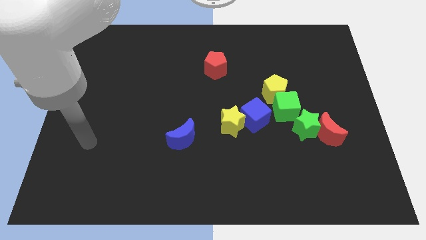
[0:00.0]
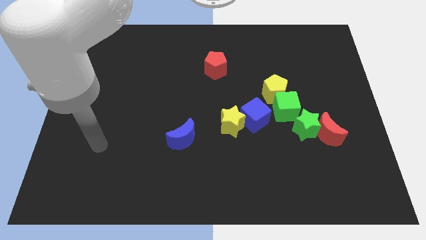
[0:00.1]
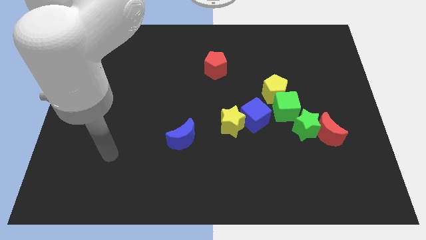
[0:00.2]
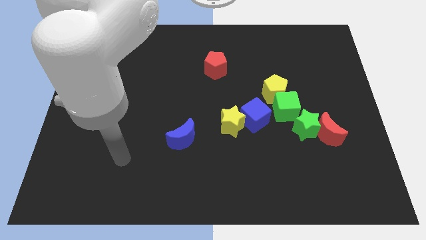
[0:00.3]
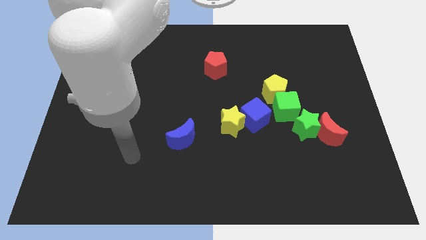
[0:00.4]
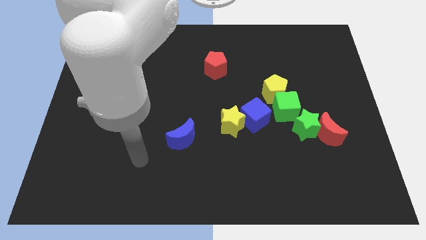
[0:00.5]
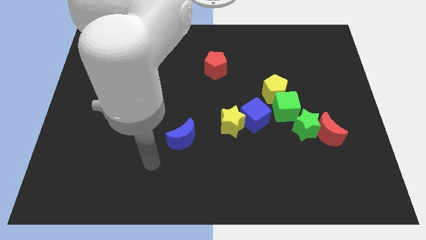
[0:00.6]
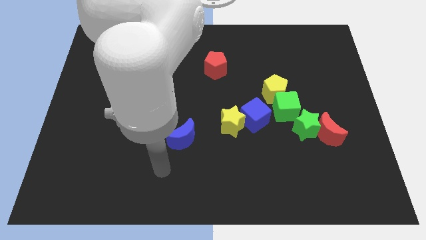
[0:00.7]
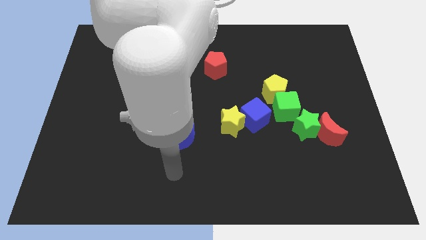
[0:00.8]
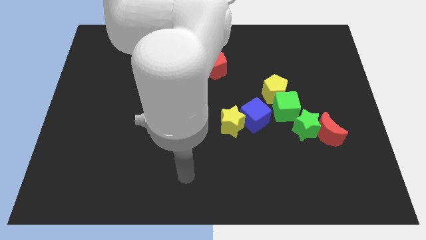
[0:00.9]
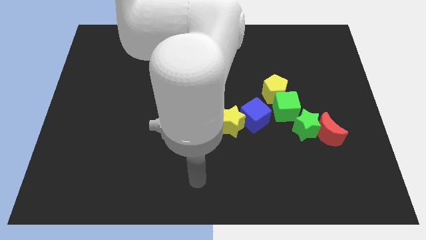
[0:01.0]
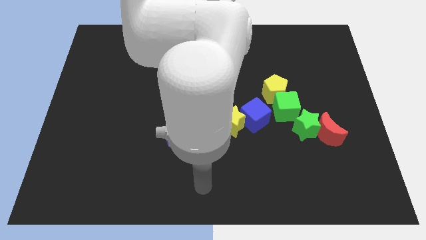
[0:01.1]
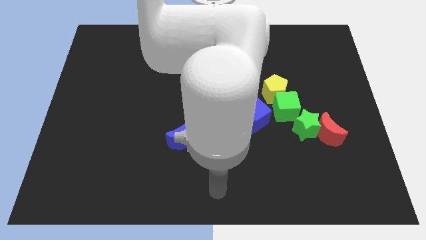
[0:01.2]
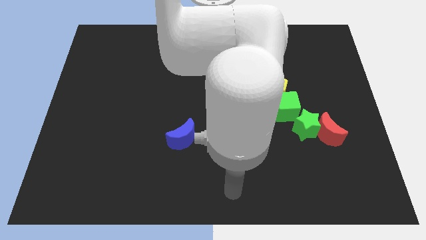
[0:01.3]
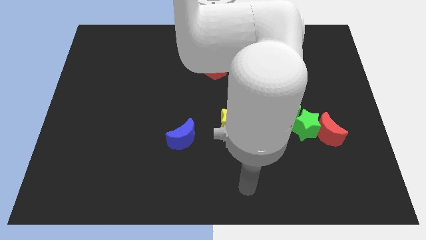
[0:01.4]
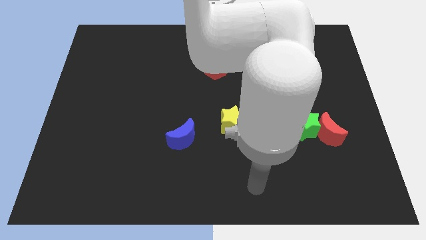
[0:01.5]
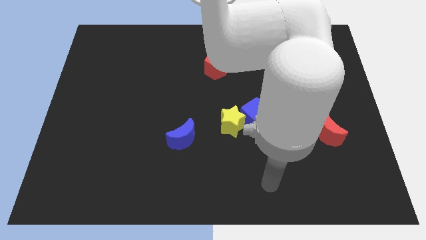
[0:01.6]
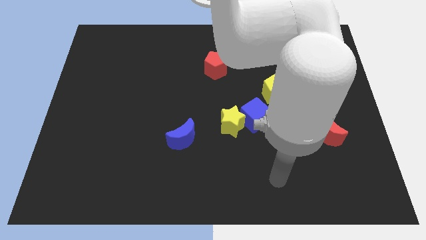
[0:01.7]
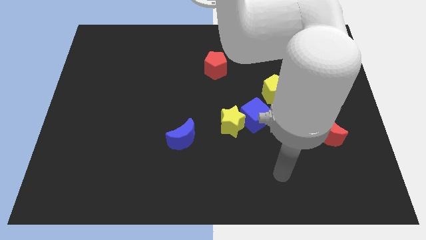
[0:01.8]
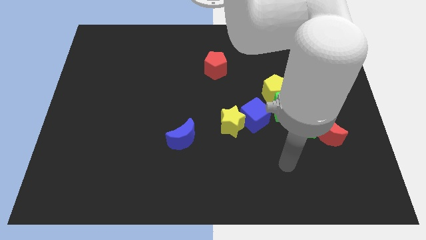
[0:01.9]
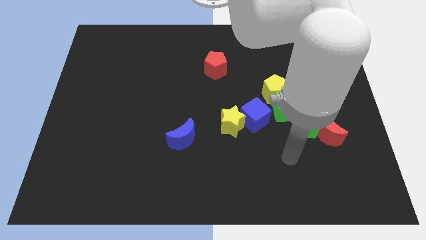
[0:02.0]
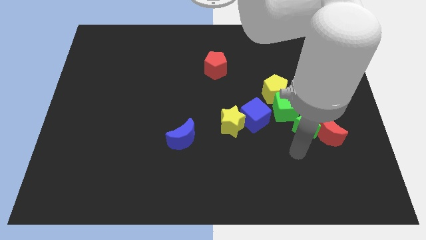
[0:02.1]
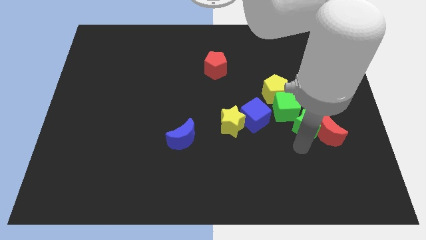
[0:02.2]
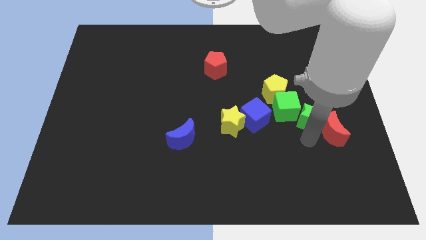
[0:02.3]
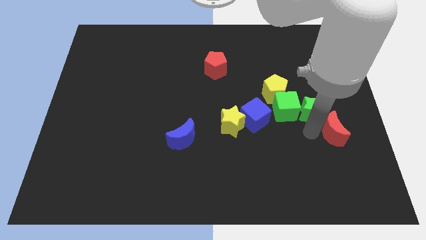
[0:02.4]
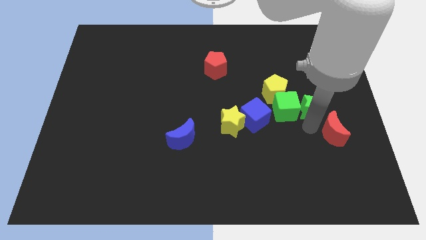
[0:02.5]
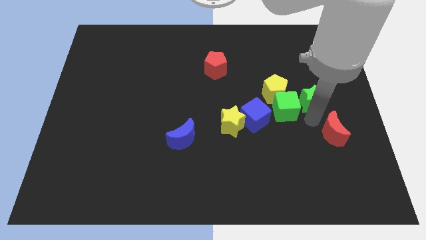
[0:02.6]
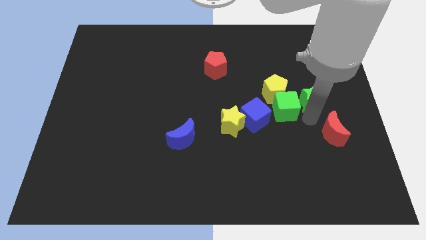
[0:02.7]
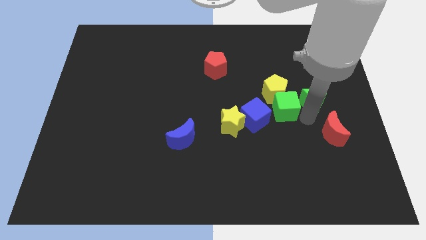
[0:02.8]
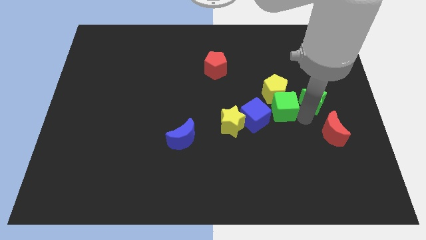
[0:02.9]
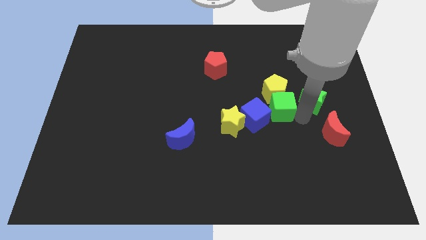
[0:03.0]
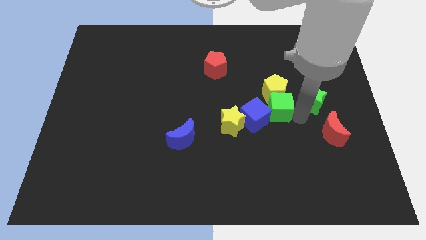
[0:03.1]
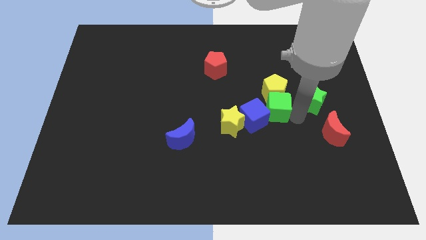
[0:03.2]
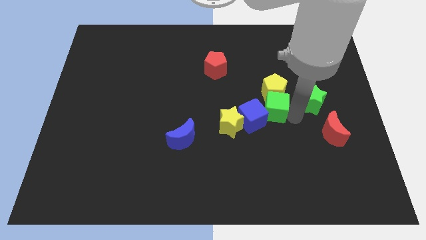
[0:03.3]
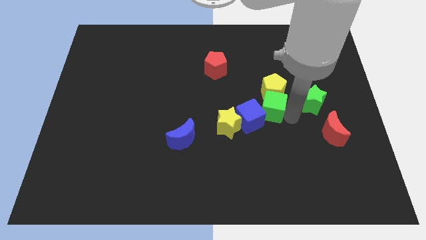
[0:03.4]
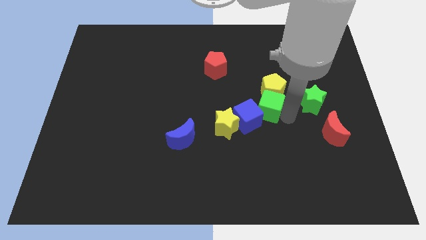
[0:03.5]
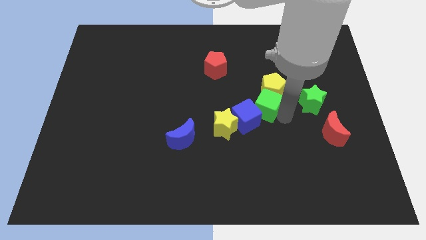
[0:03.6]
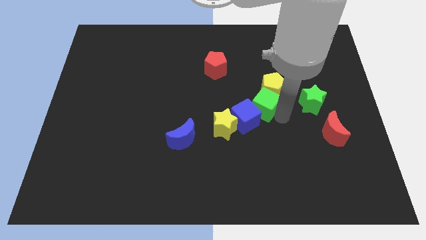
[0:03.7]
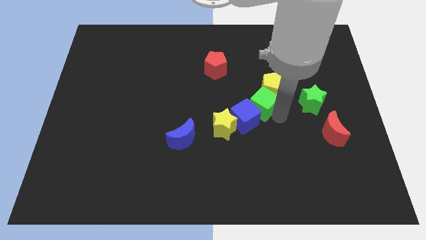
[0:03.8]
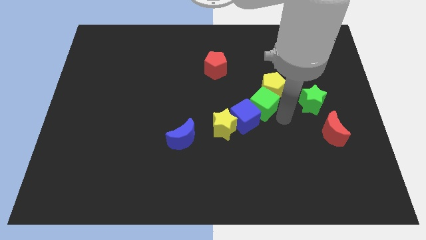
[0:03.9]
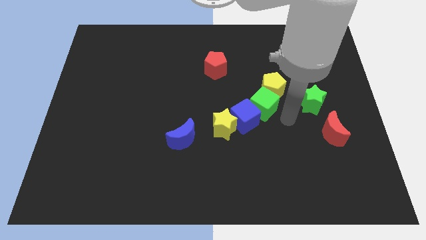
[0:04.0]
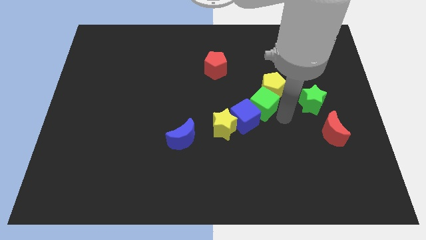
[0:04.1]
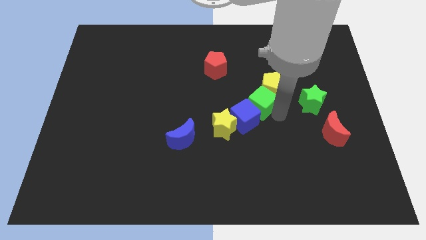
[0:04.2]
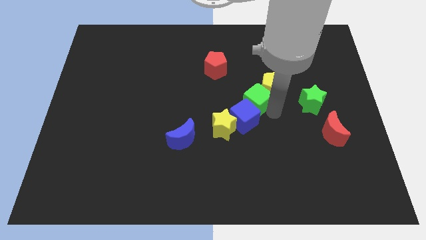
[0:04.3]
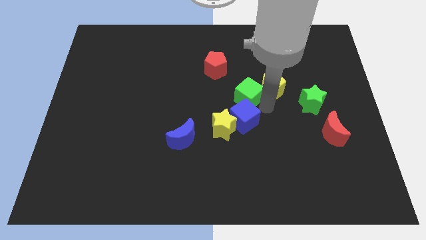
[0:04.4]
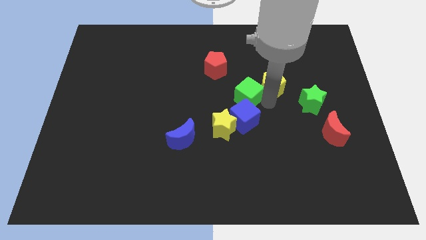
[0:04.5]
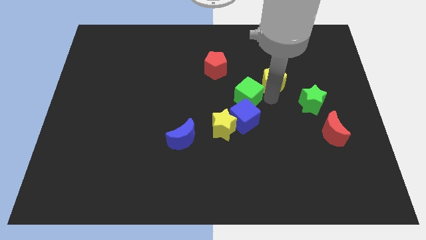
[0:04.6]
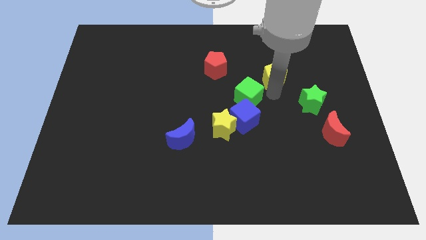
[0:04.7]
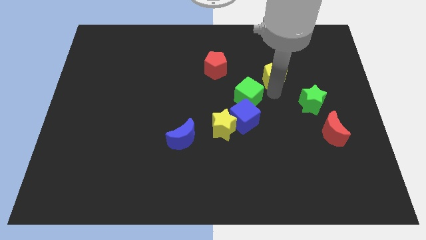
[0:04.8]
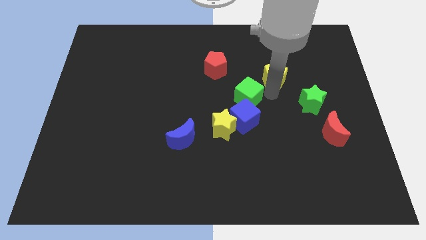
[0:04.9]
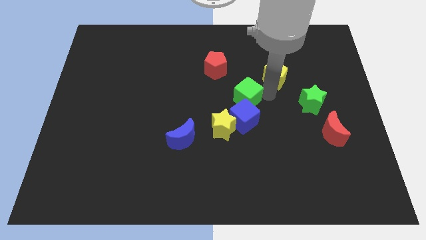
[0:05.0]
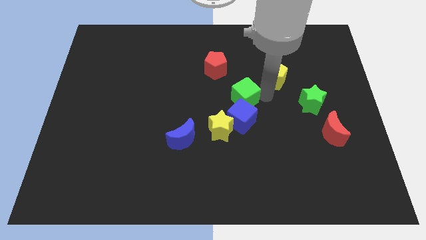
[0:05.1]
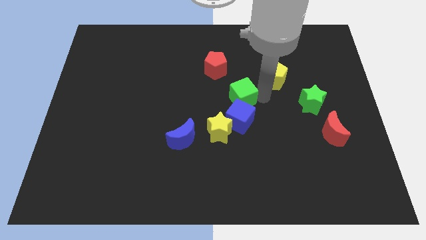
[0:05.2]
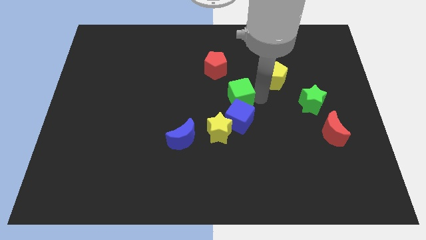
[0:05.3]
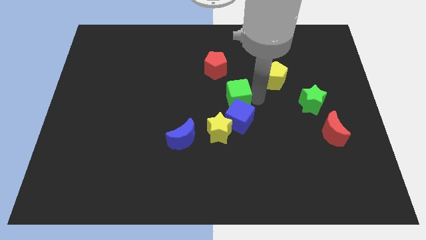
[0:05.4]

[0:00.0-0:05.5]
put the green cube to the top left of the blue cube

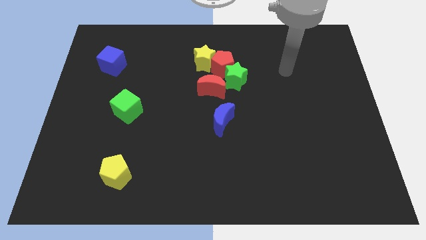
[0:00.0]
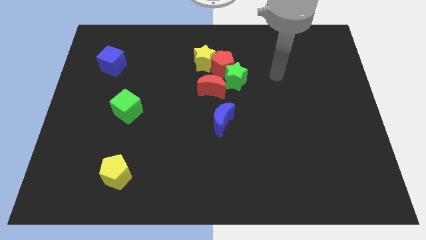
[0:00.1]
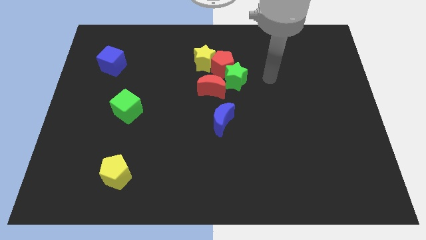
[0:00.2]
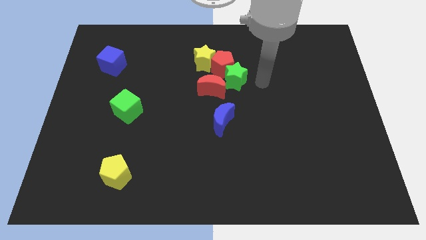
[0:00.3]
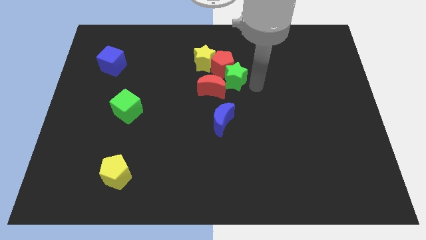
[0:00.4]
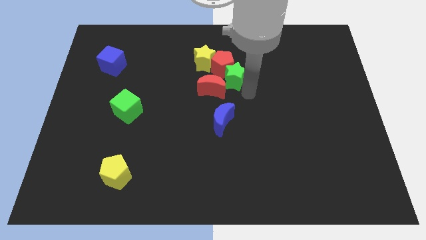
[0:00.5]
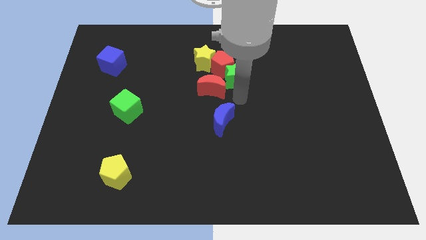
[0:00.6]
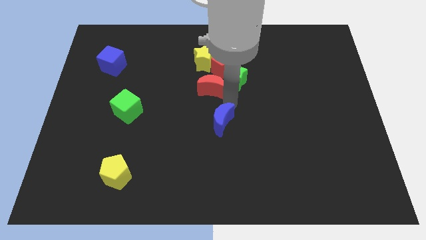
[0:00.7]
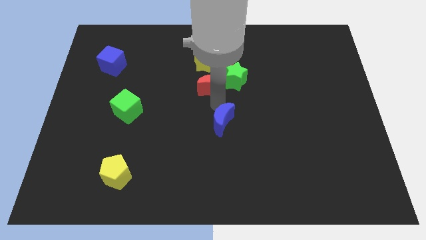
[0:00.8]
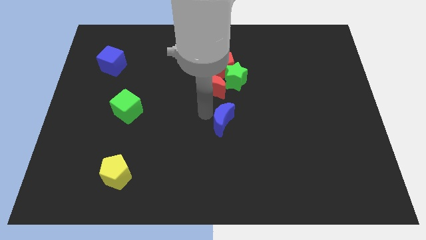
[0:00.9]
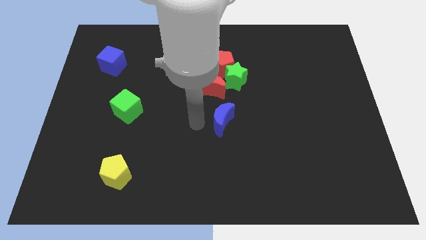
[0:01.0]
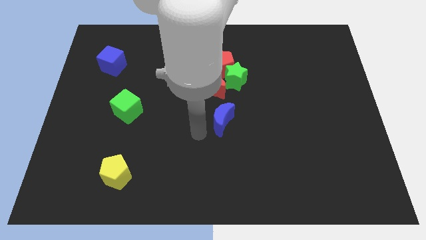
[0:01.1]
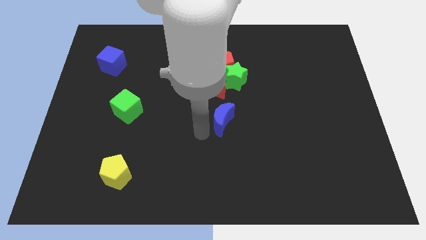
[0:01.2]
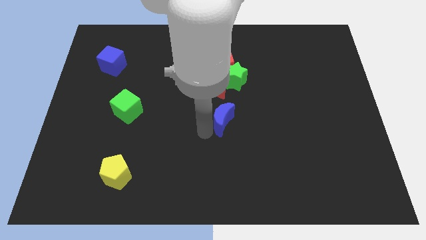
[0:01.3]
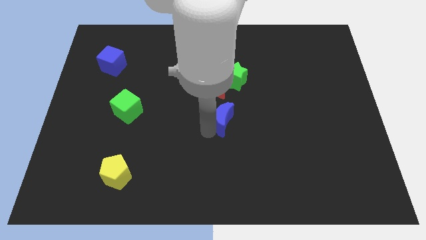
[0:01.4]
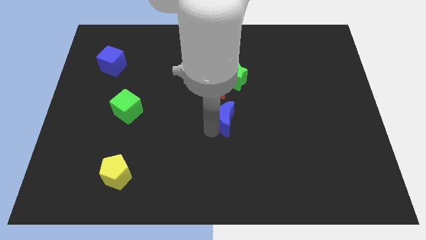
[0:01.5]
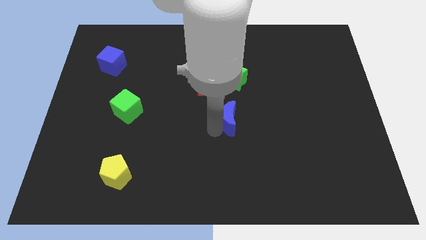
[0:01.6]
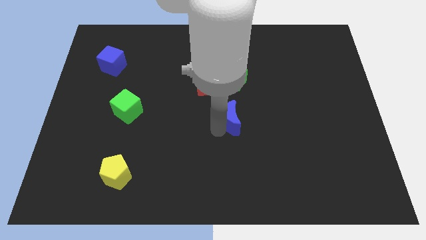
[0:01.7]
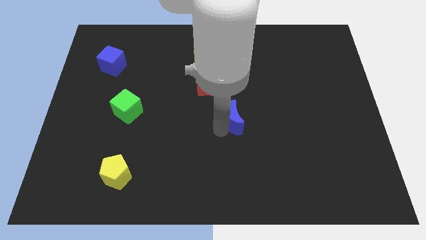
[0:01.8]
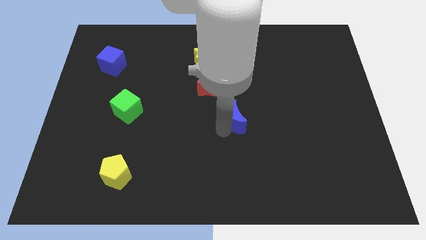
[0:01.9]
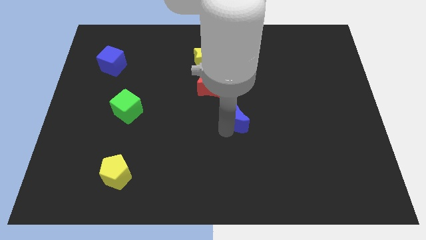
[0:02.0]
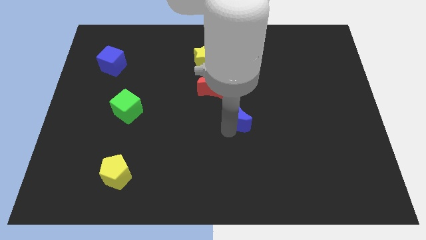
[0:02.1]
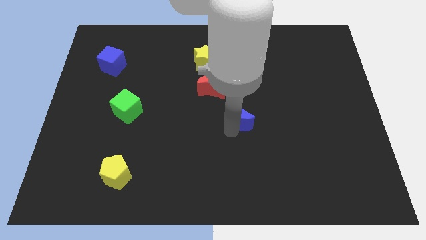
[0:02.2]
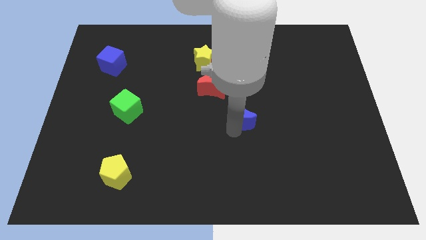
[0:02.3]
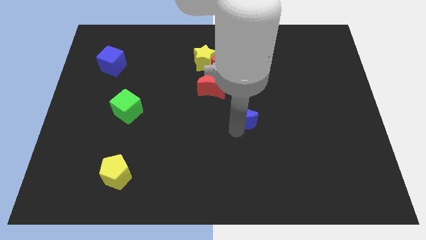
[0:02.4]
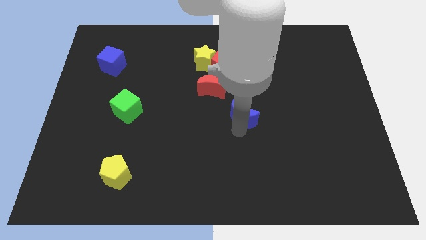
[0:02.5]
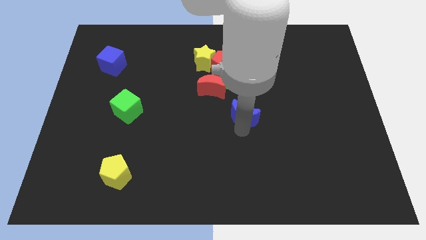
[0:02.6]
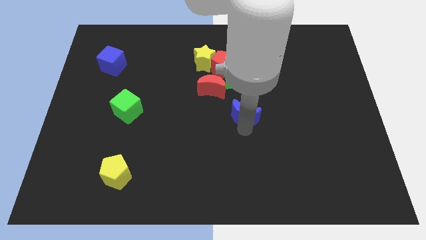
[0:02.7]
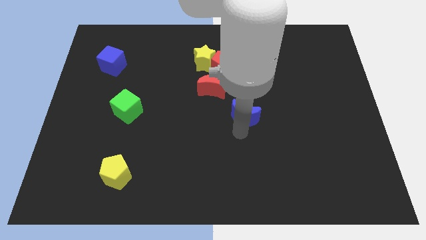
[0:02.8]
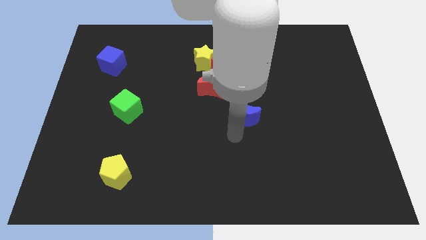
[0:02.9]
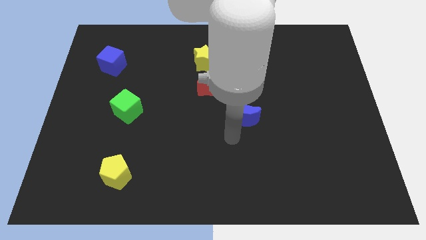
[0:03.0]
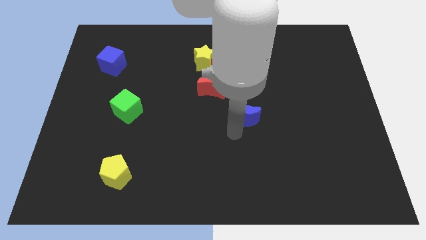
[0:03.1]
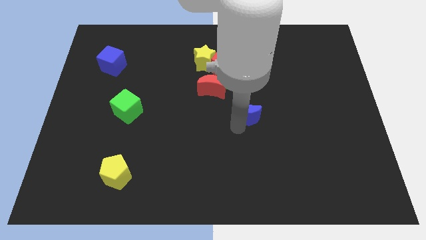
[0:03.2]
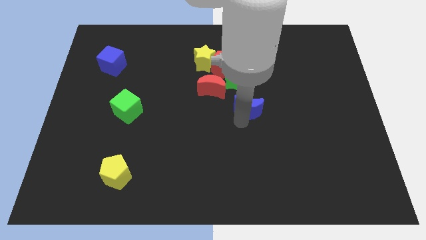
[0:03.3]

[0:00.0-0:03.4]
push the blue moon to the bottom right of the green star
